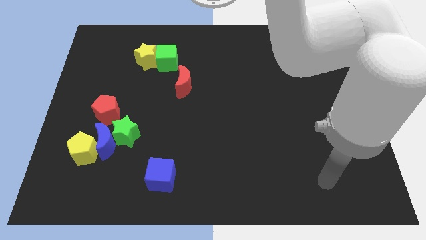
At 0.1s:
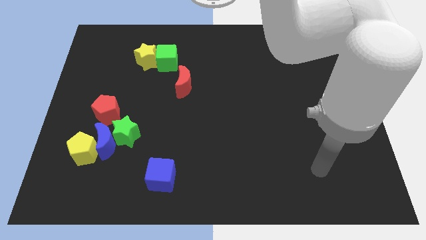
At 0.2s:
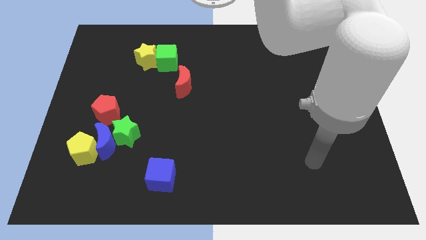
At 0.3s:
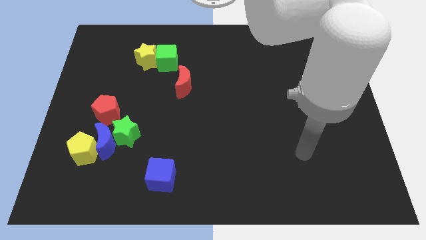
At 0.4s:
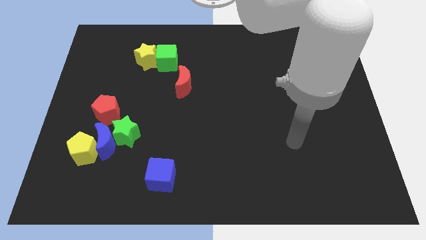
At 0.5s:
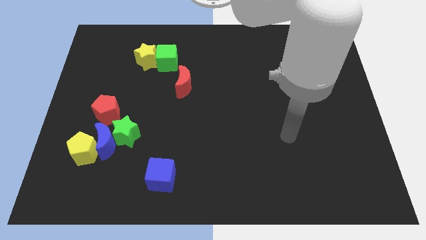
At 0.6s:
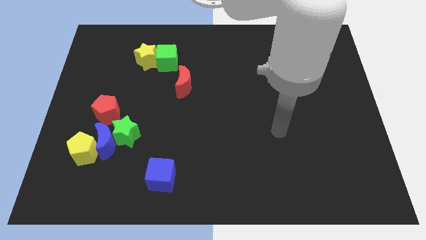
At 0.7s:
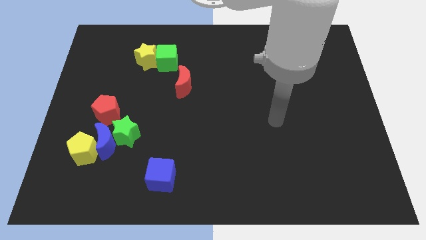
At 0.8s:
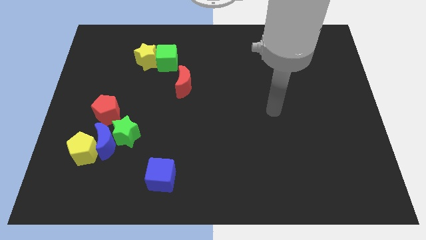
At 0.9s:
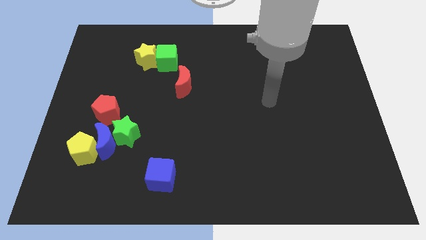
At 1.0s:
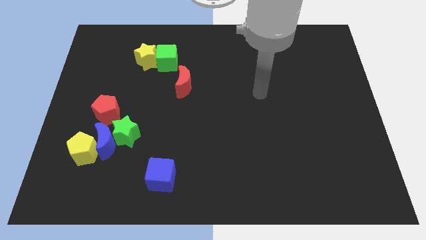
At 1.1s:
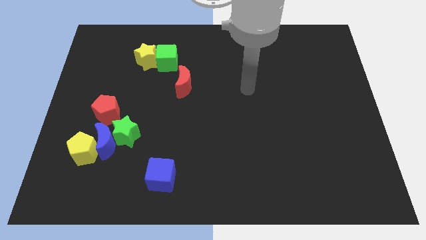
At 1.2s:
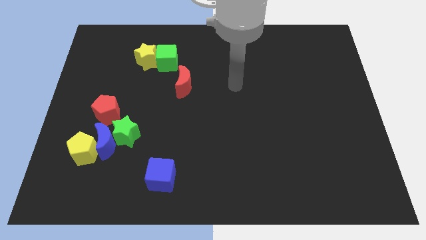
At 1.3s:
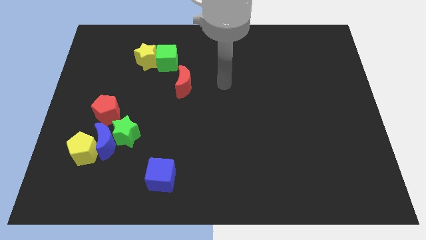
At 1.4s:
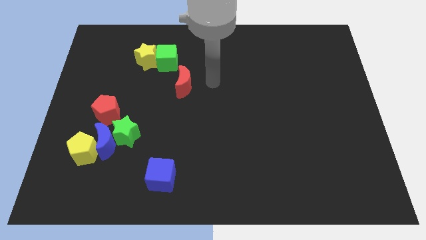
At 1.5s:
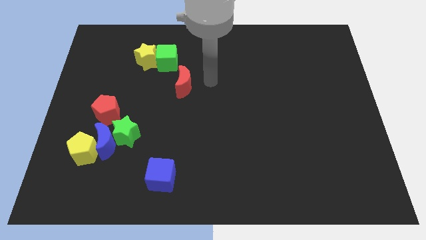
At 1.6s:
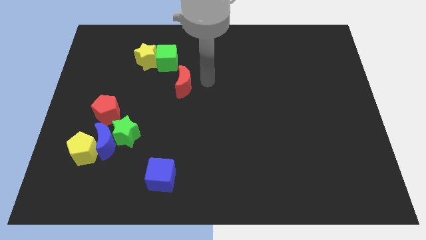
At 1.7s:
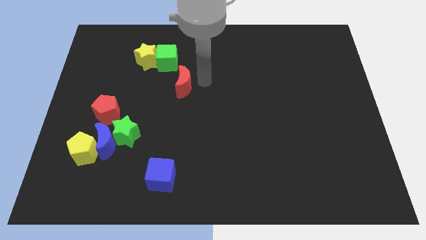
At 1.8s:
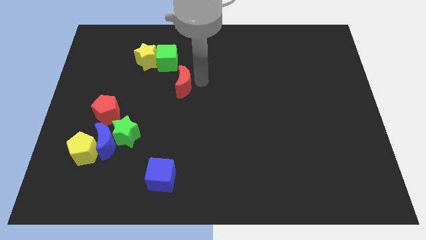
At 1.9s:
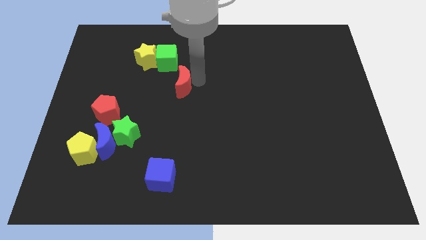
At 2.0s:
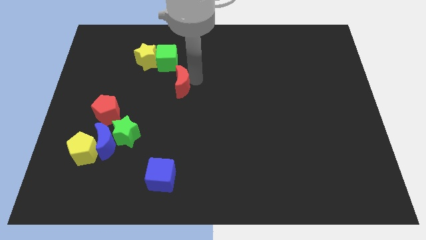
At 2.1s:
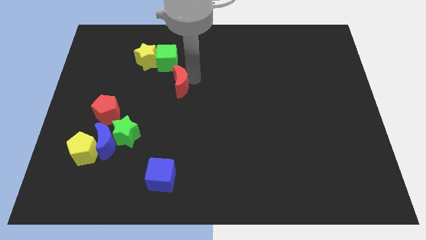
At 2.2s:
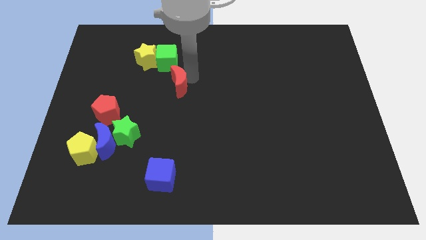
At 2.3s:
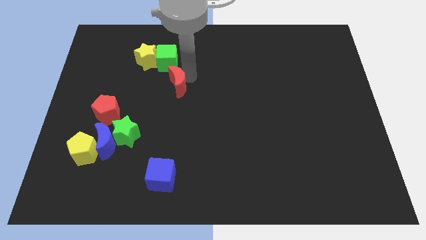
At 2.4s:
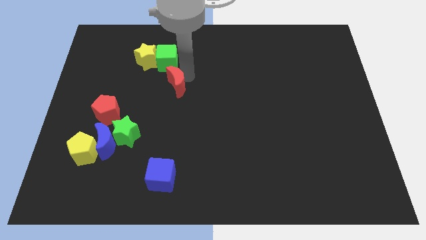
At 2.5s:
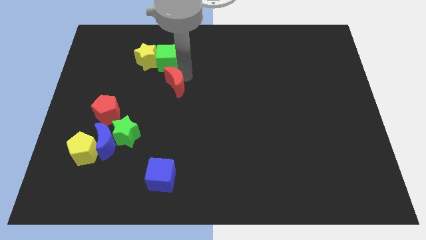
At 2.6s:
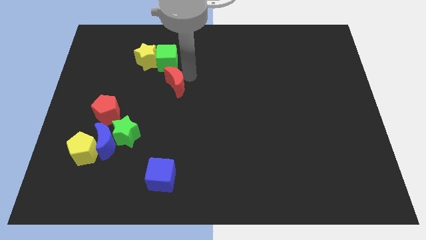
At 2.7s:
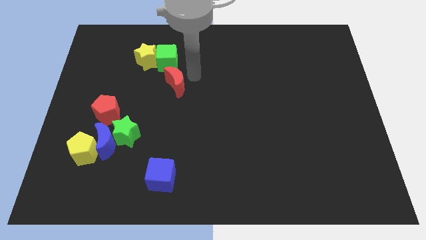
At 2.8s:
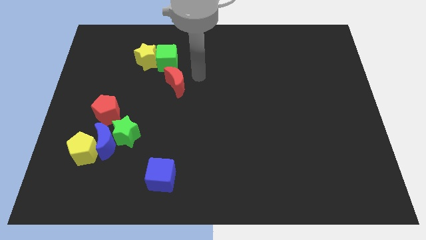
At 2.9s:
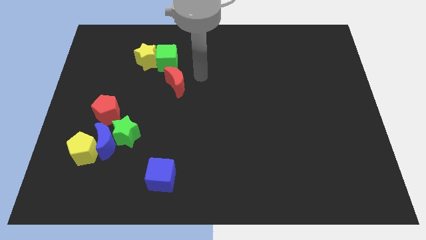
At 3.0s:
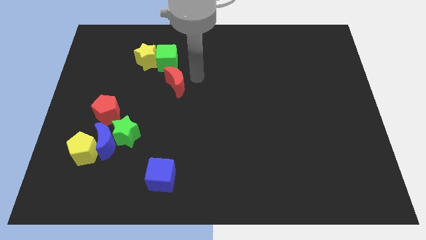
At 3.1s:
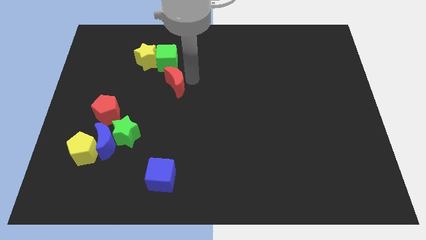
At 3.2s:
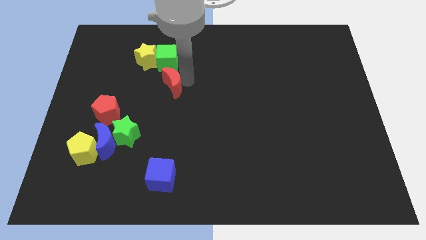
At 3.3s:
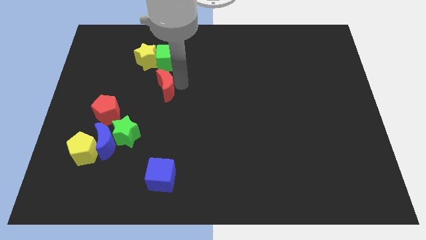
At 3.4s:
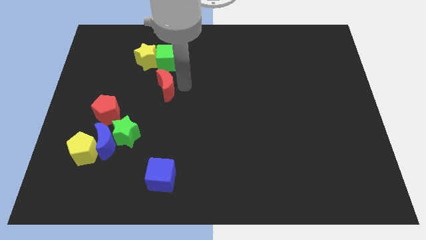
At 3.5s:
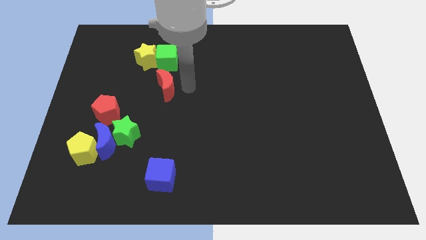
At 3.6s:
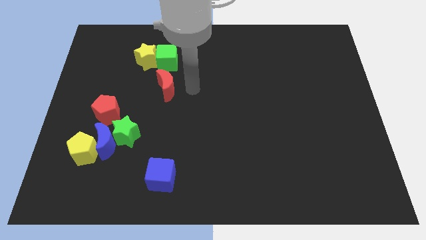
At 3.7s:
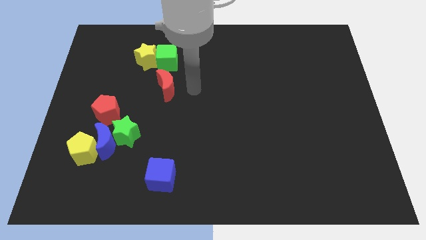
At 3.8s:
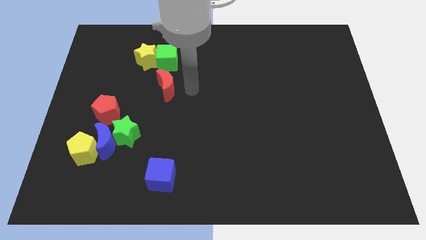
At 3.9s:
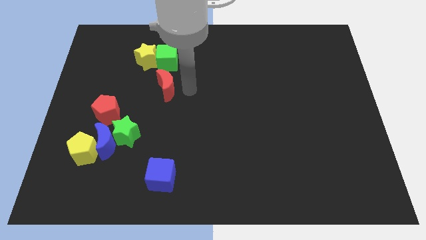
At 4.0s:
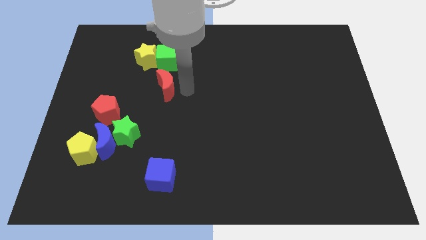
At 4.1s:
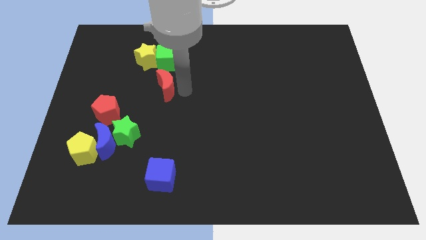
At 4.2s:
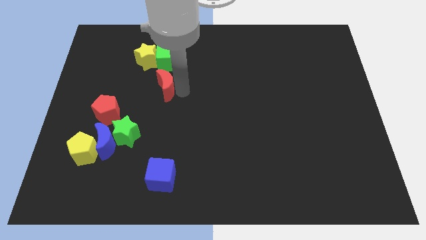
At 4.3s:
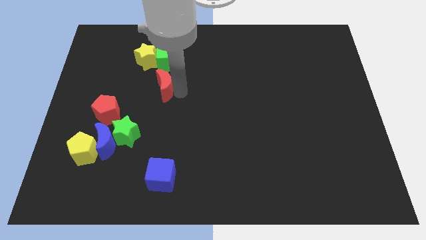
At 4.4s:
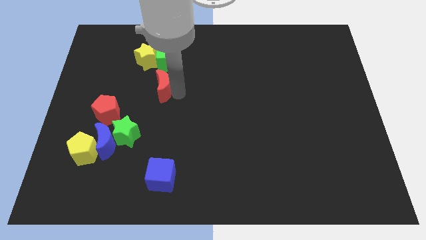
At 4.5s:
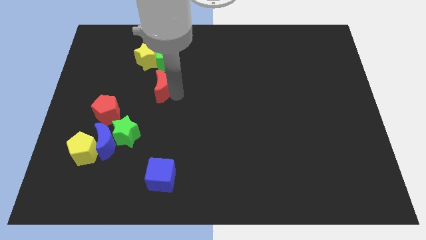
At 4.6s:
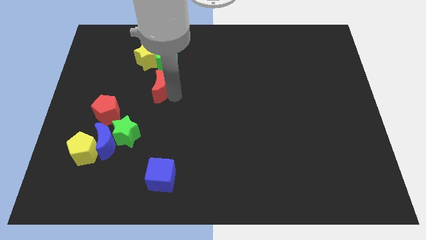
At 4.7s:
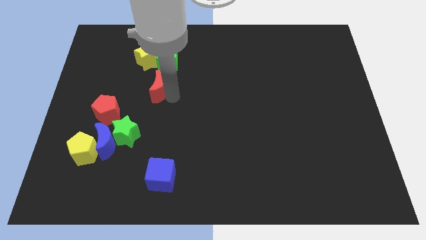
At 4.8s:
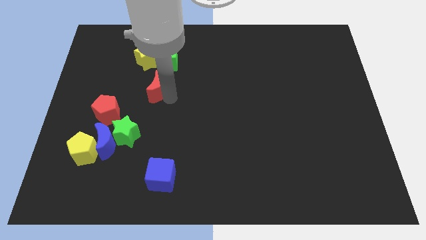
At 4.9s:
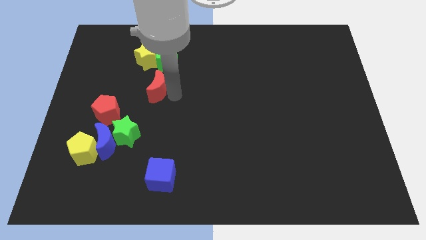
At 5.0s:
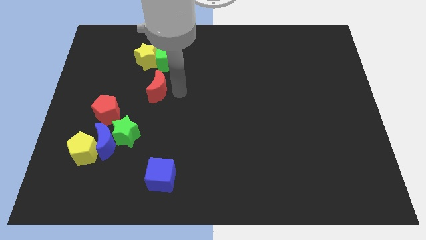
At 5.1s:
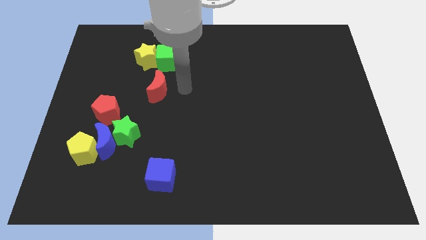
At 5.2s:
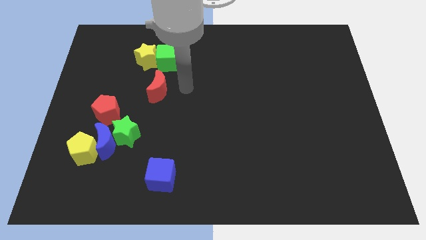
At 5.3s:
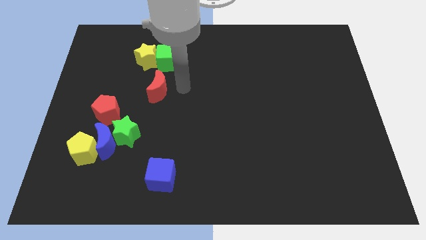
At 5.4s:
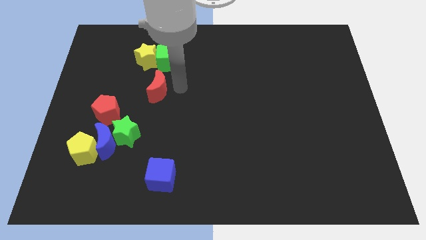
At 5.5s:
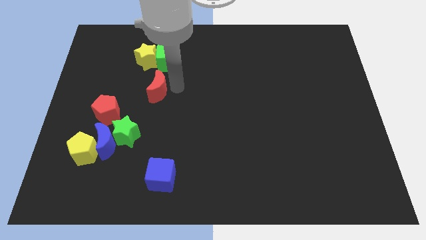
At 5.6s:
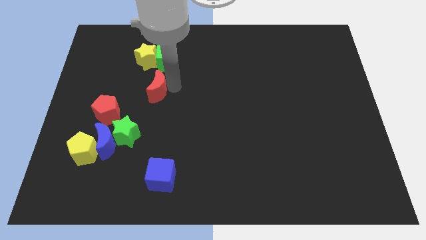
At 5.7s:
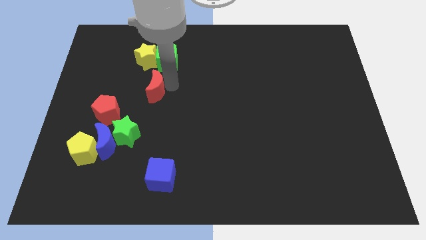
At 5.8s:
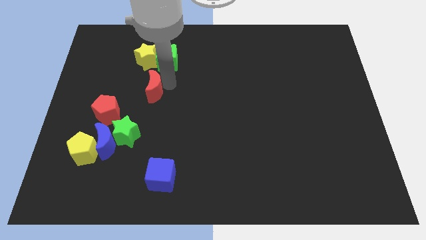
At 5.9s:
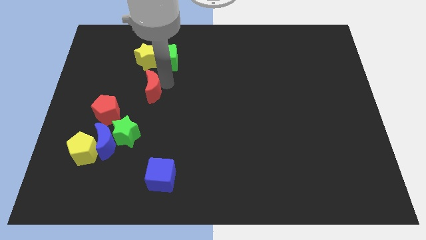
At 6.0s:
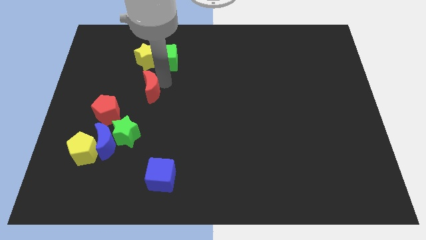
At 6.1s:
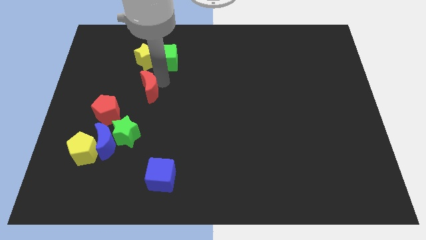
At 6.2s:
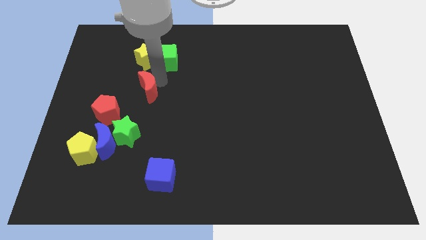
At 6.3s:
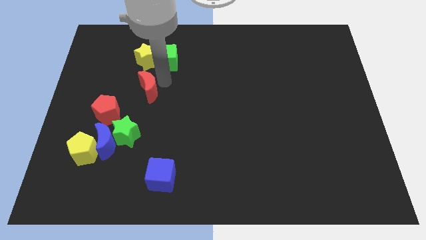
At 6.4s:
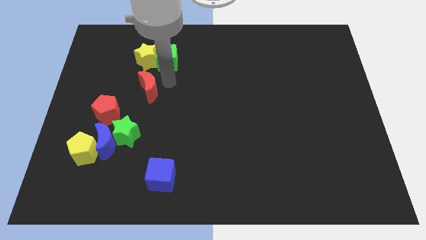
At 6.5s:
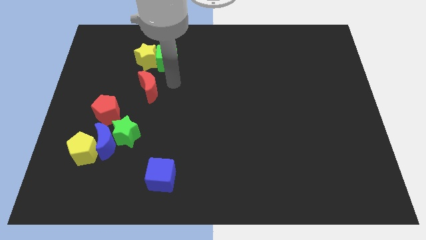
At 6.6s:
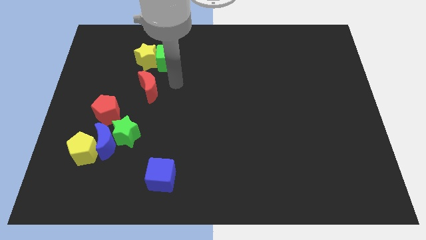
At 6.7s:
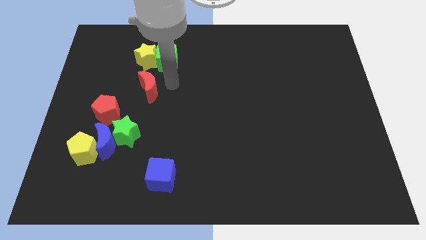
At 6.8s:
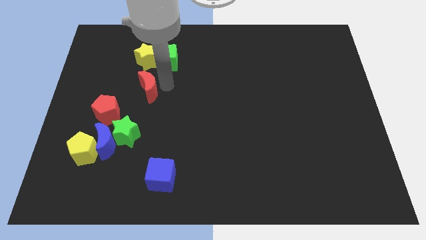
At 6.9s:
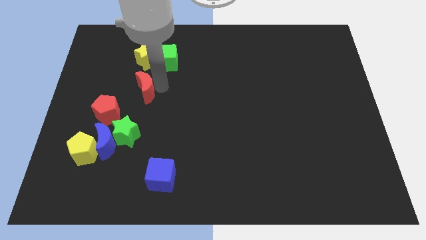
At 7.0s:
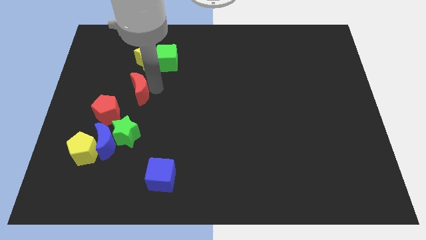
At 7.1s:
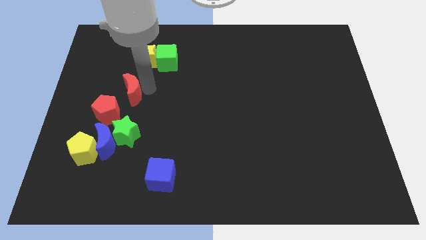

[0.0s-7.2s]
slide the red moon to the top of the blue moon

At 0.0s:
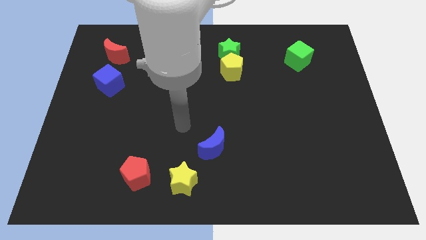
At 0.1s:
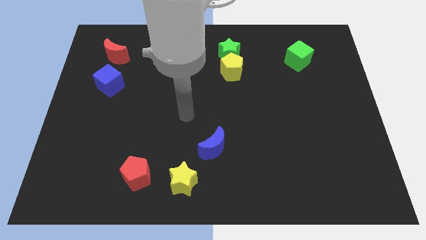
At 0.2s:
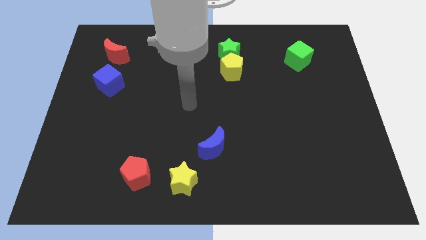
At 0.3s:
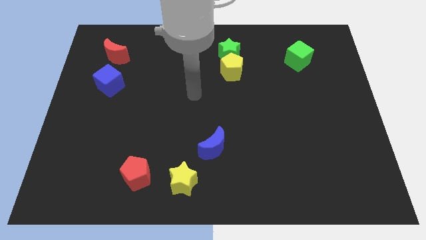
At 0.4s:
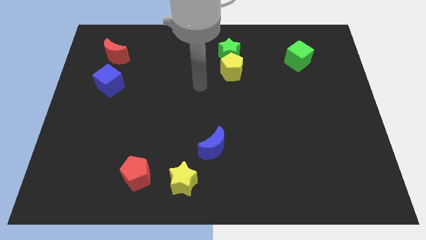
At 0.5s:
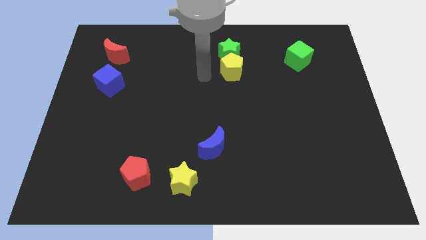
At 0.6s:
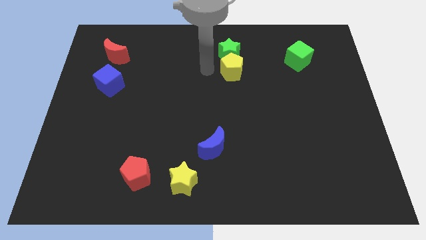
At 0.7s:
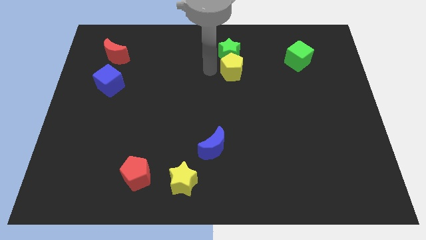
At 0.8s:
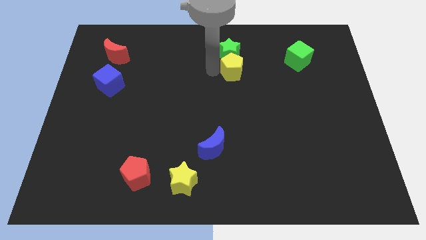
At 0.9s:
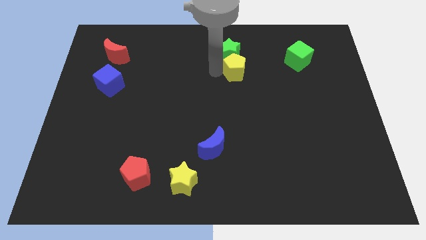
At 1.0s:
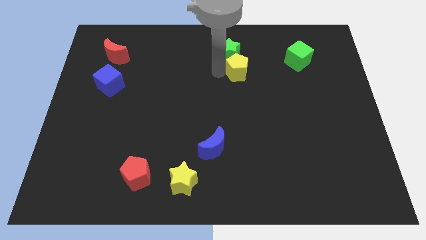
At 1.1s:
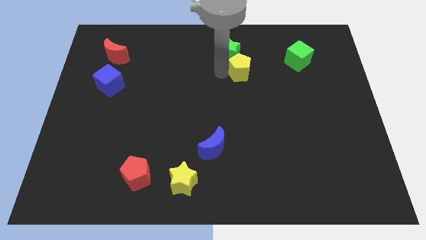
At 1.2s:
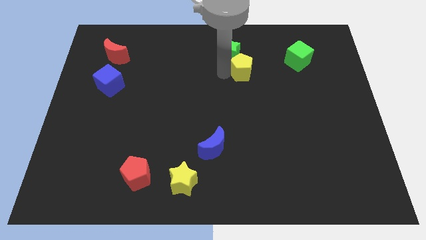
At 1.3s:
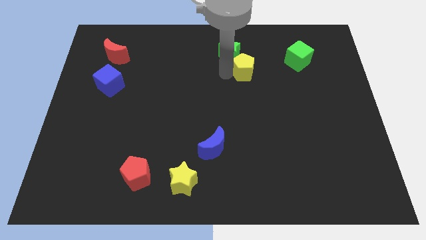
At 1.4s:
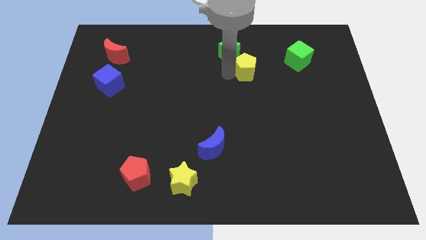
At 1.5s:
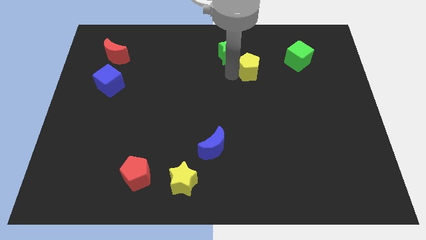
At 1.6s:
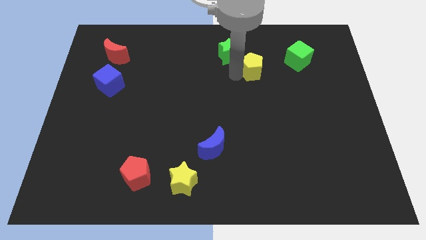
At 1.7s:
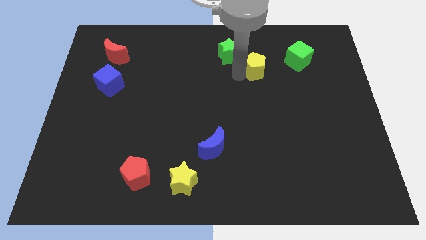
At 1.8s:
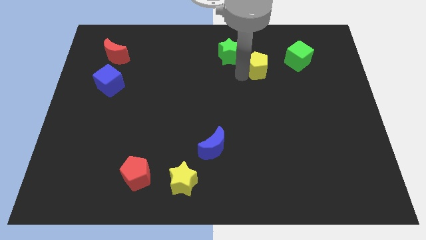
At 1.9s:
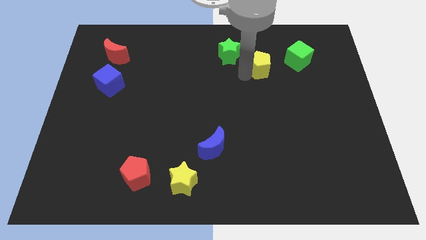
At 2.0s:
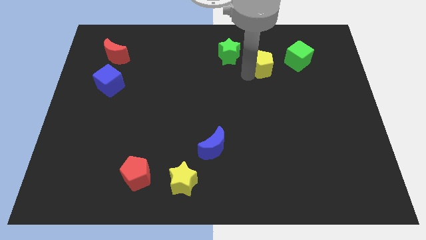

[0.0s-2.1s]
put the yellow pentagon to the bottom left side of the green cube
